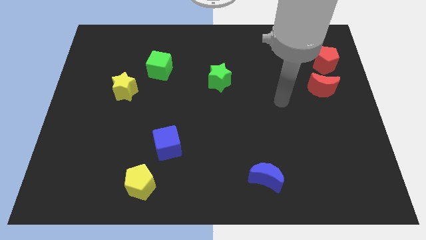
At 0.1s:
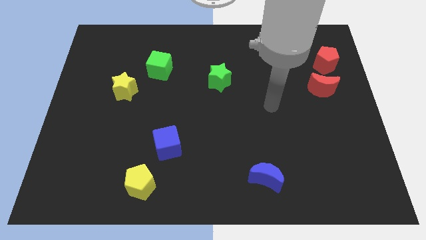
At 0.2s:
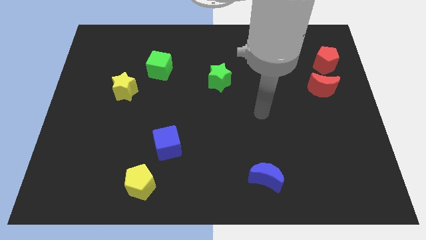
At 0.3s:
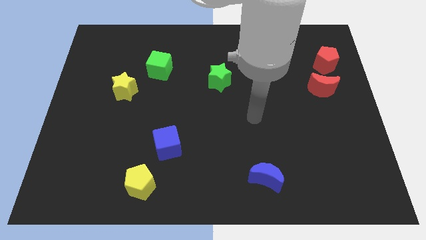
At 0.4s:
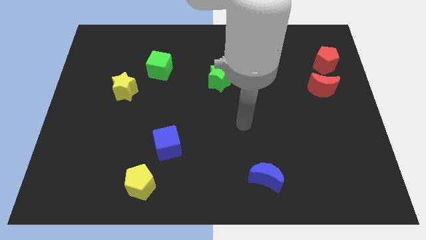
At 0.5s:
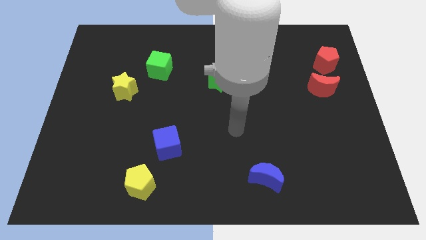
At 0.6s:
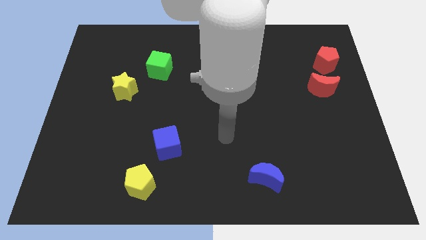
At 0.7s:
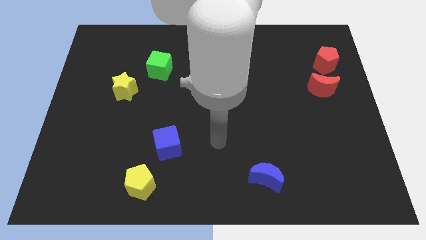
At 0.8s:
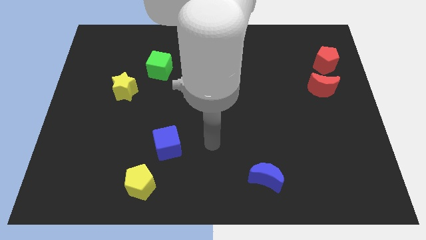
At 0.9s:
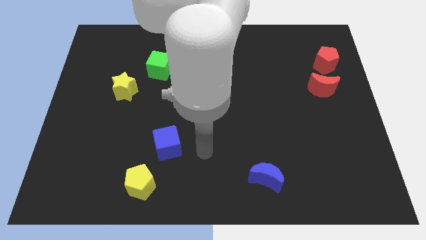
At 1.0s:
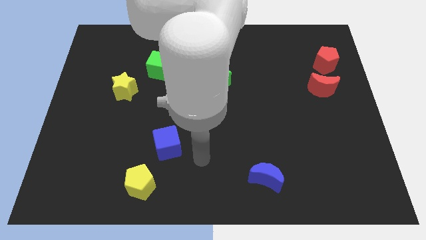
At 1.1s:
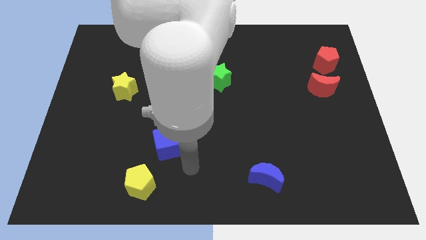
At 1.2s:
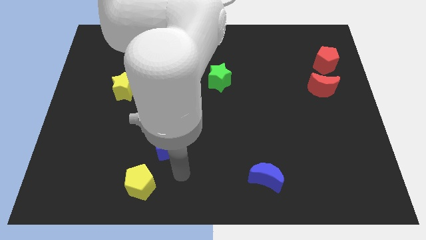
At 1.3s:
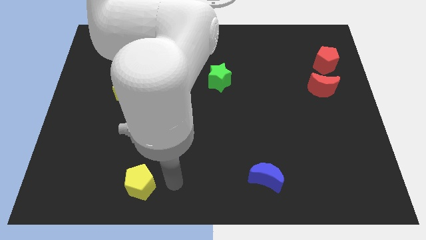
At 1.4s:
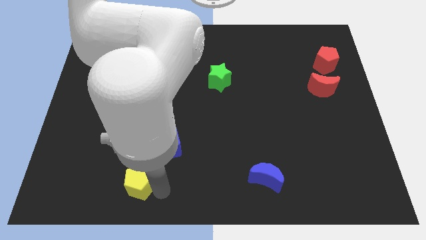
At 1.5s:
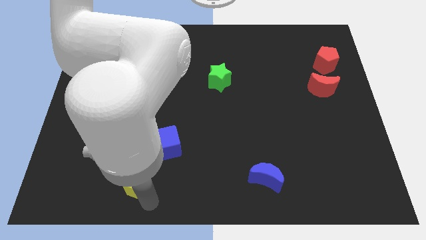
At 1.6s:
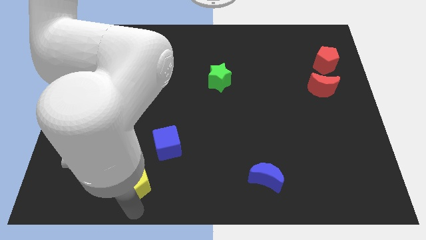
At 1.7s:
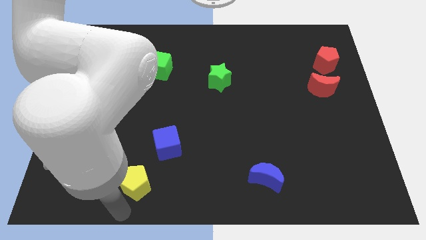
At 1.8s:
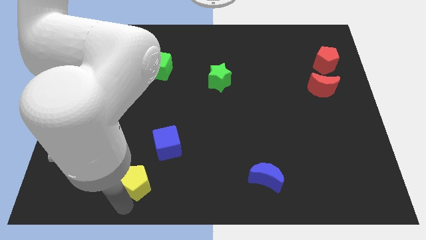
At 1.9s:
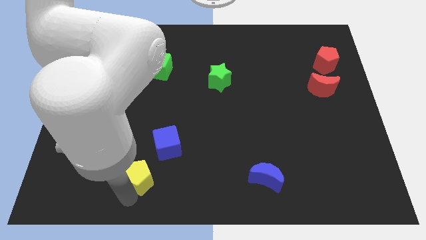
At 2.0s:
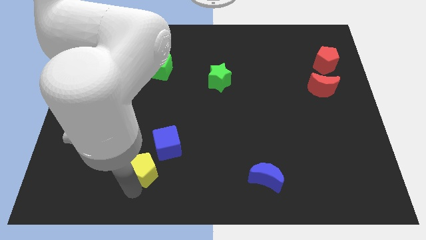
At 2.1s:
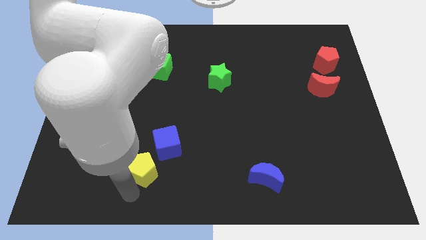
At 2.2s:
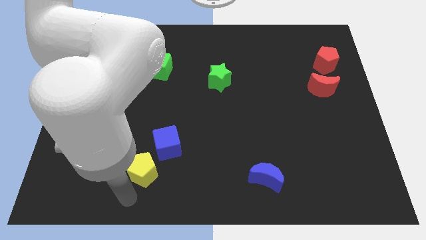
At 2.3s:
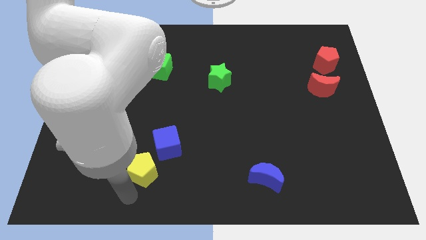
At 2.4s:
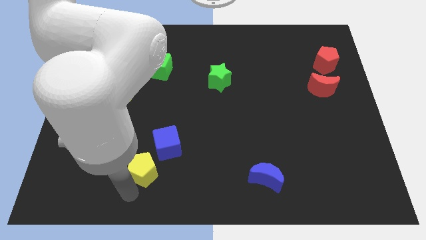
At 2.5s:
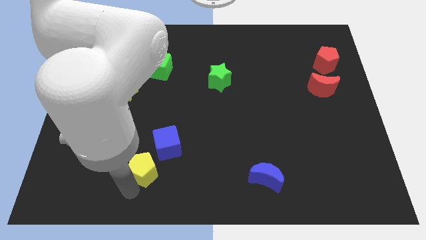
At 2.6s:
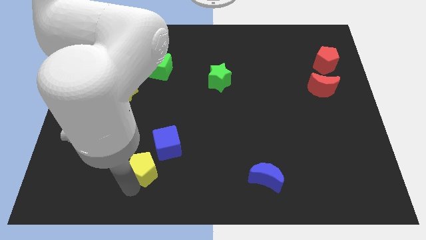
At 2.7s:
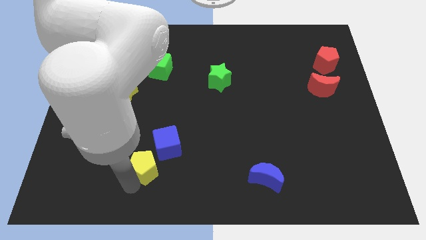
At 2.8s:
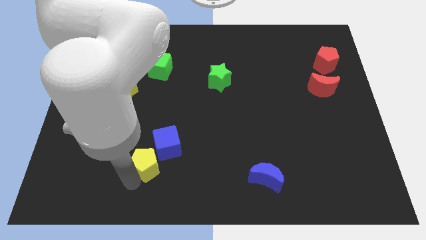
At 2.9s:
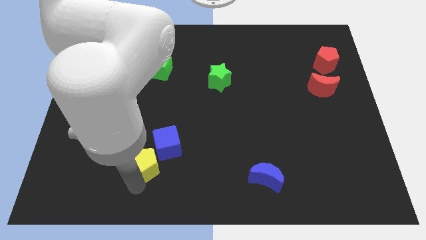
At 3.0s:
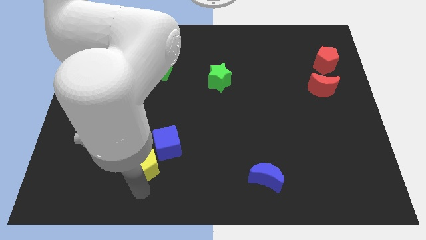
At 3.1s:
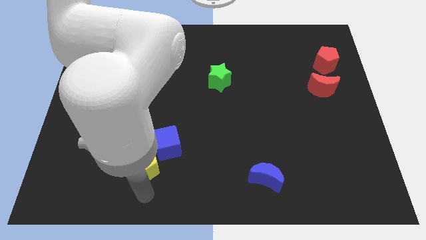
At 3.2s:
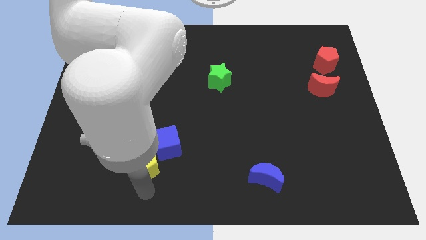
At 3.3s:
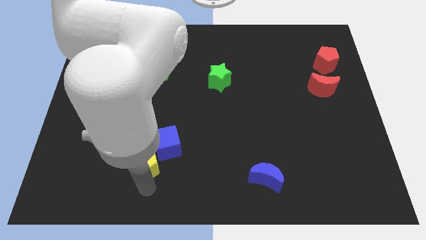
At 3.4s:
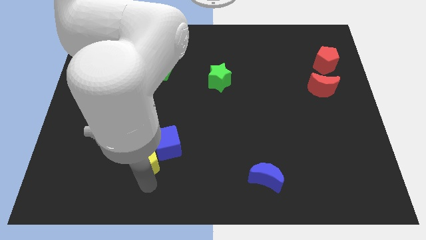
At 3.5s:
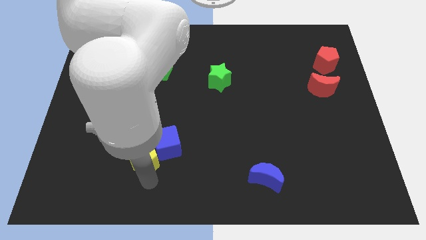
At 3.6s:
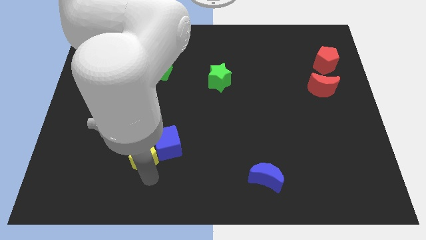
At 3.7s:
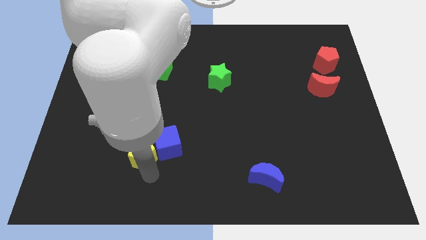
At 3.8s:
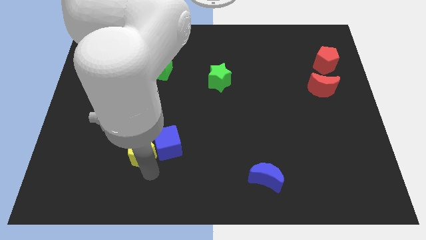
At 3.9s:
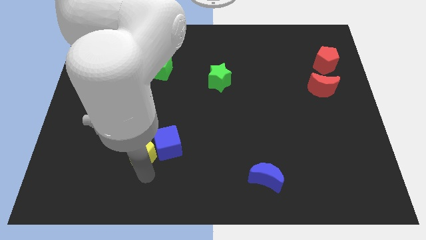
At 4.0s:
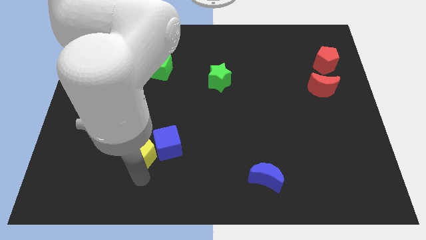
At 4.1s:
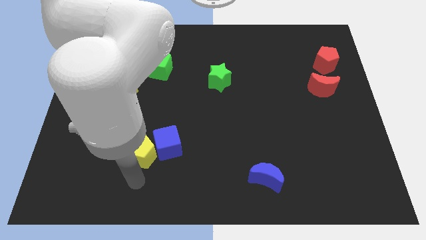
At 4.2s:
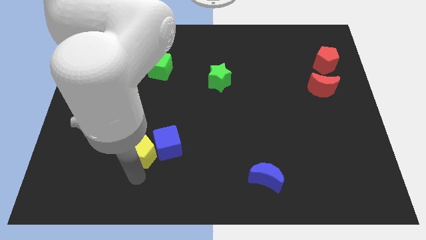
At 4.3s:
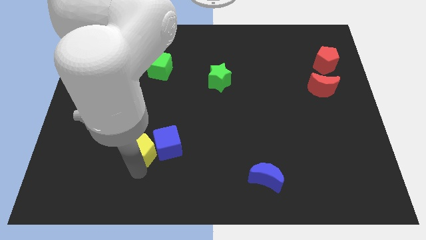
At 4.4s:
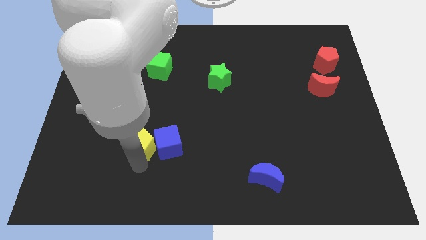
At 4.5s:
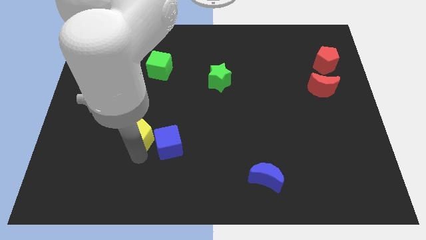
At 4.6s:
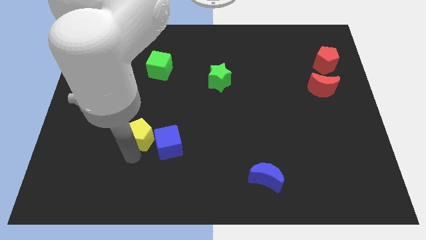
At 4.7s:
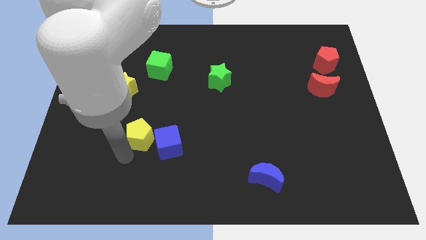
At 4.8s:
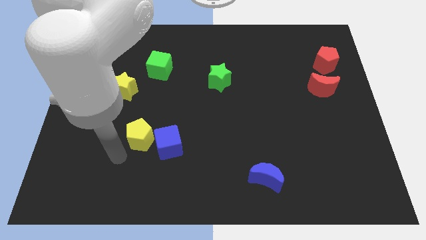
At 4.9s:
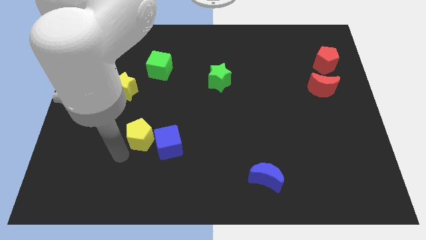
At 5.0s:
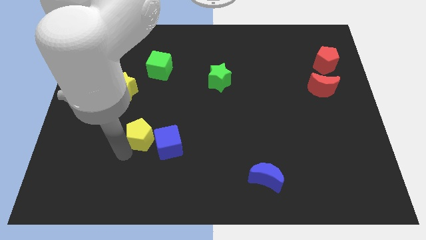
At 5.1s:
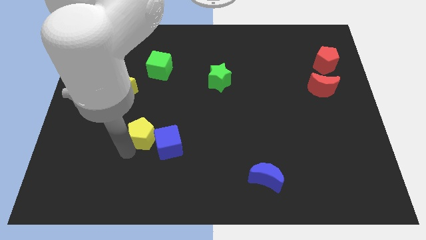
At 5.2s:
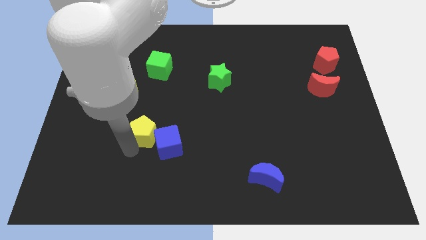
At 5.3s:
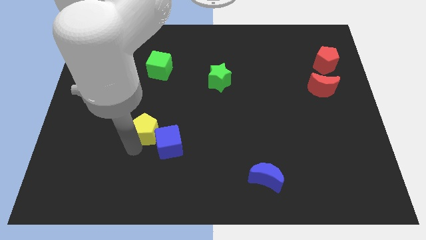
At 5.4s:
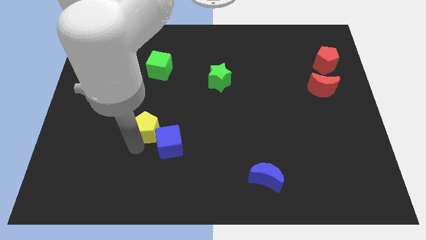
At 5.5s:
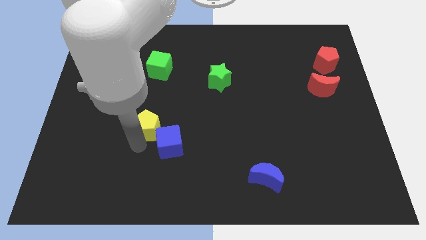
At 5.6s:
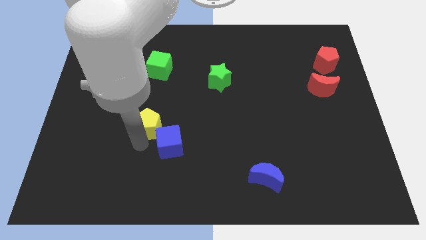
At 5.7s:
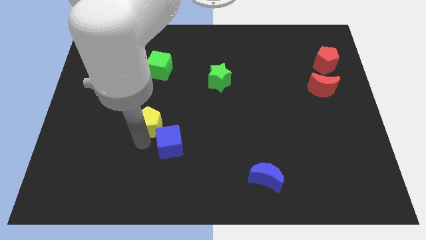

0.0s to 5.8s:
put the yellow pentagon above the blue cube

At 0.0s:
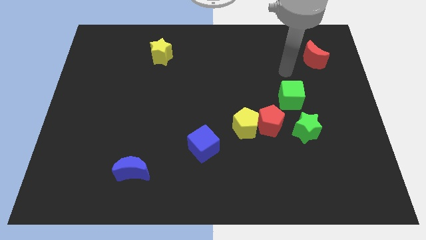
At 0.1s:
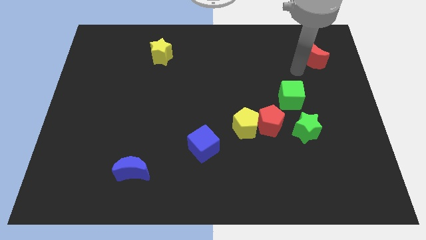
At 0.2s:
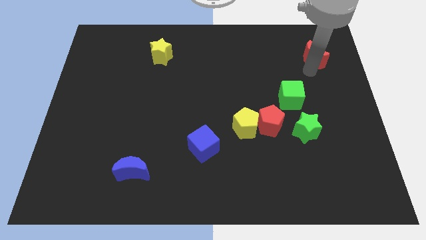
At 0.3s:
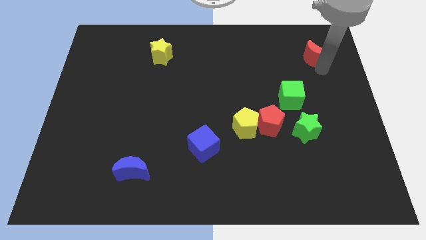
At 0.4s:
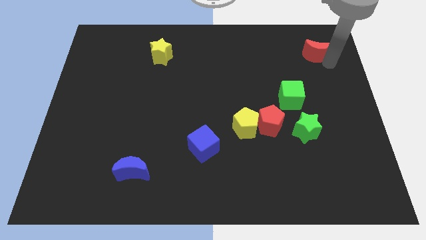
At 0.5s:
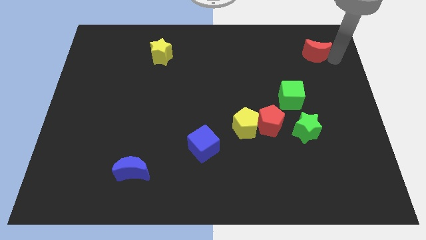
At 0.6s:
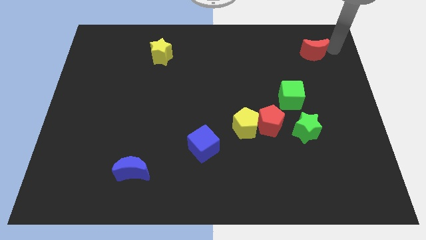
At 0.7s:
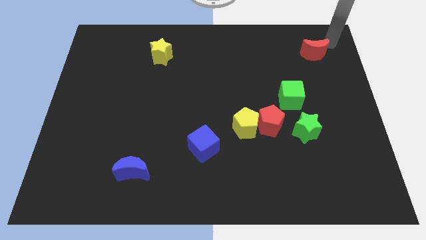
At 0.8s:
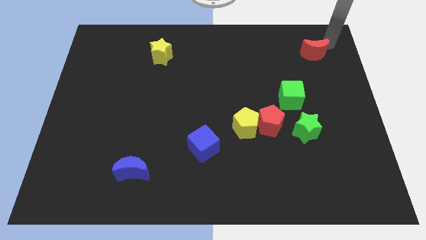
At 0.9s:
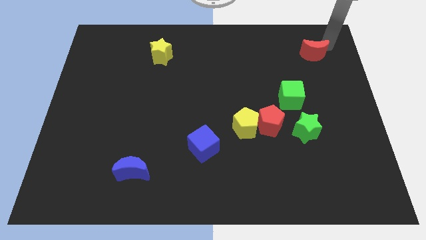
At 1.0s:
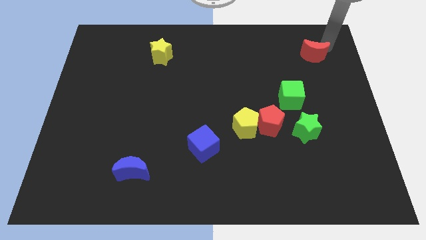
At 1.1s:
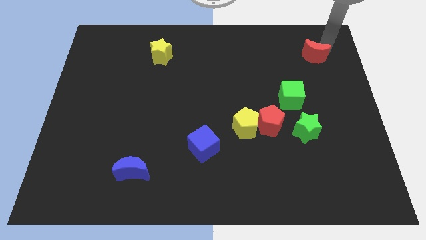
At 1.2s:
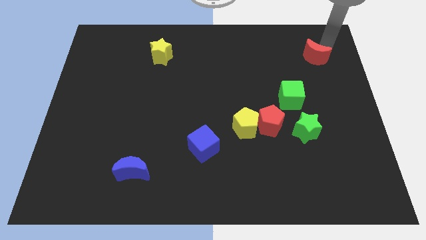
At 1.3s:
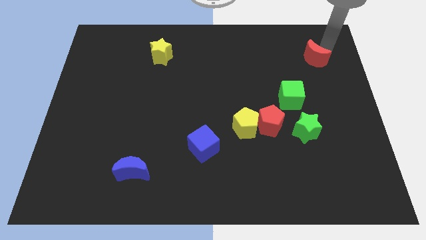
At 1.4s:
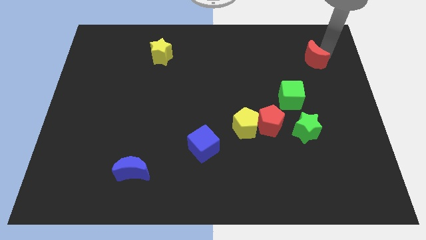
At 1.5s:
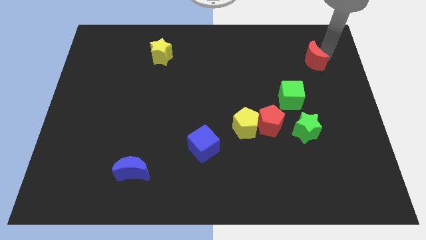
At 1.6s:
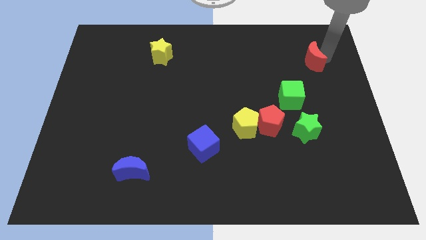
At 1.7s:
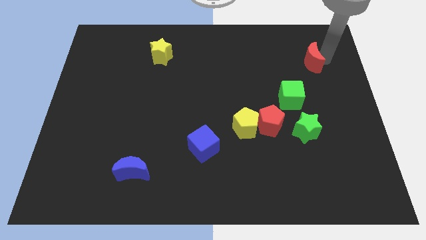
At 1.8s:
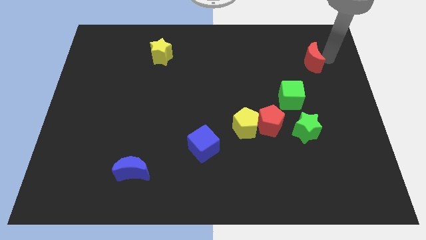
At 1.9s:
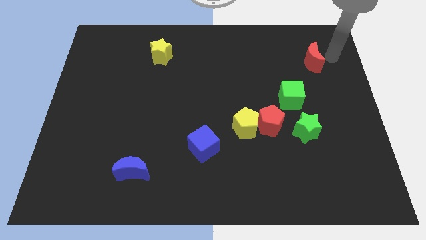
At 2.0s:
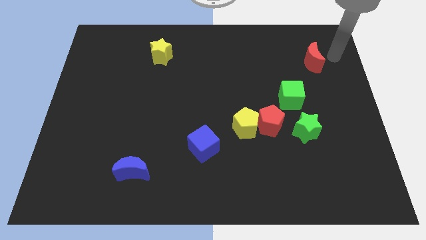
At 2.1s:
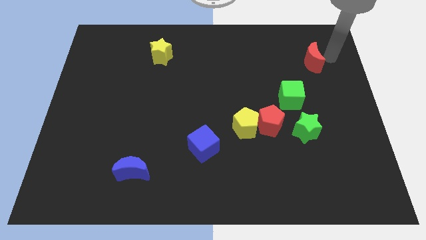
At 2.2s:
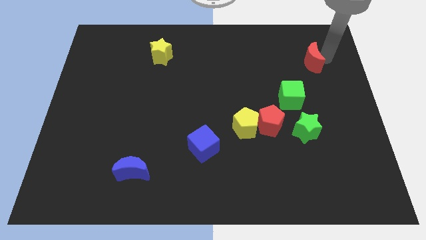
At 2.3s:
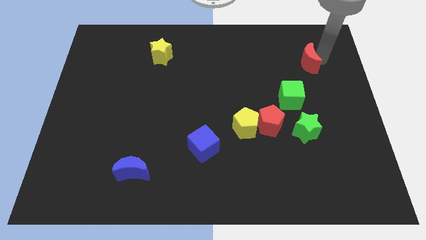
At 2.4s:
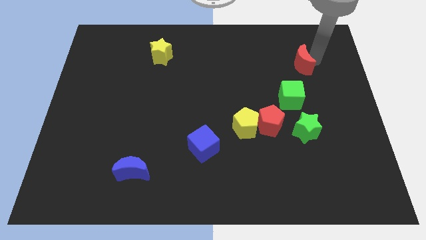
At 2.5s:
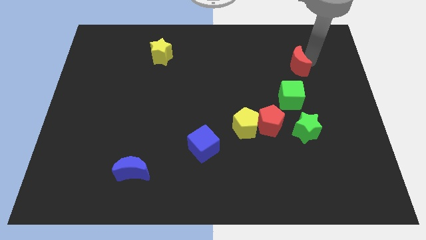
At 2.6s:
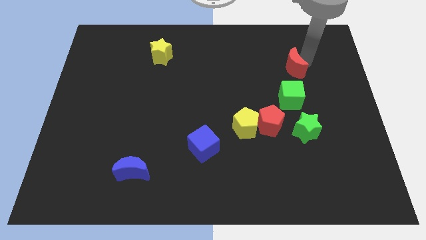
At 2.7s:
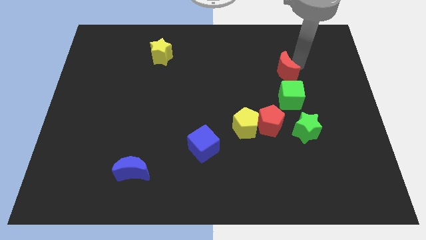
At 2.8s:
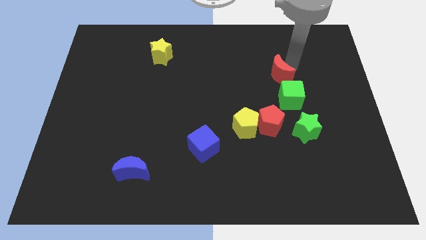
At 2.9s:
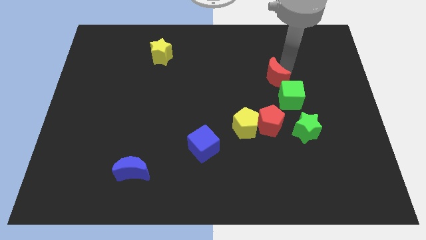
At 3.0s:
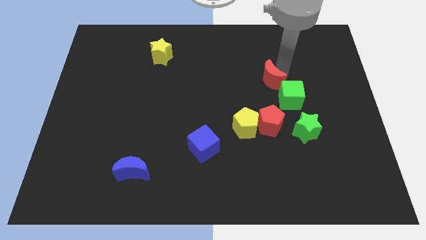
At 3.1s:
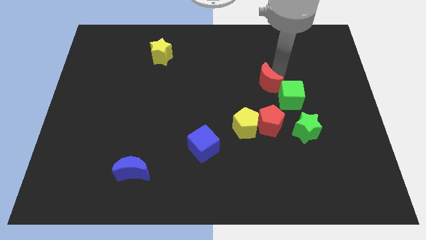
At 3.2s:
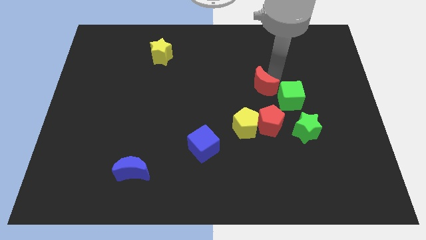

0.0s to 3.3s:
push the red moon above the yellow pentagon
